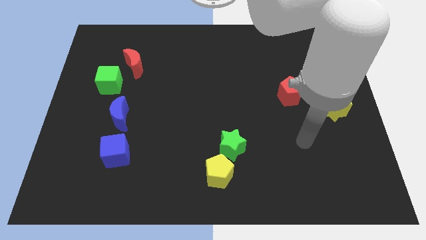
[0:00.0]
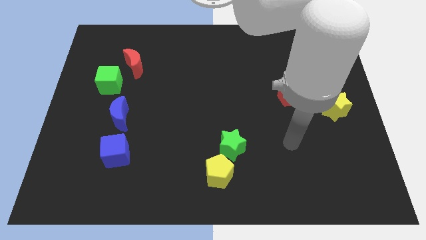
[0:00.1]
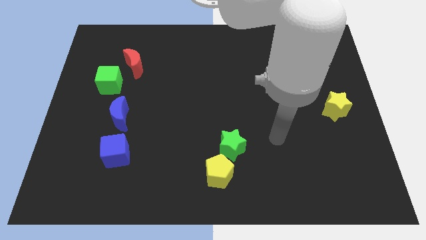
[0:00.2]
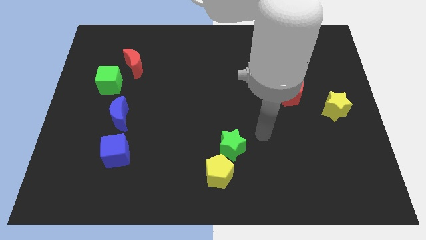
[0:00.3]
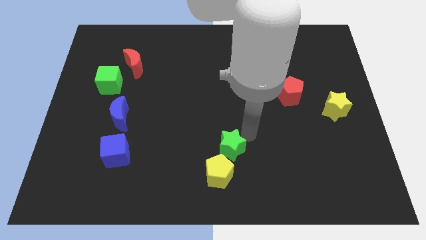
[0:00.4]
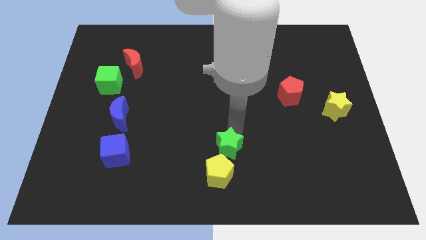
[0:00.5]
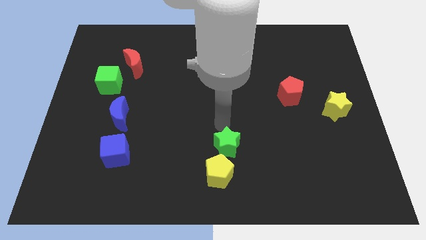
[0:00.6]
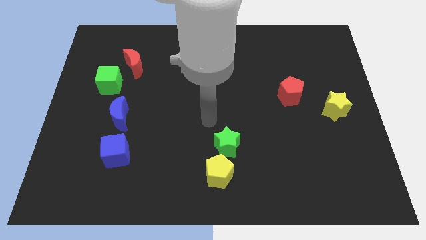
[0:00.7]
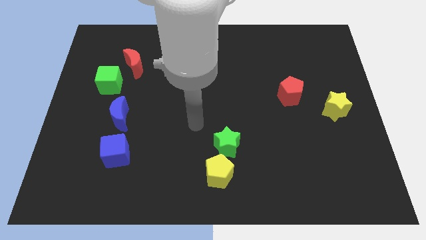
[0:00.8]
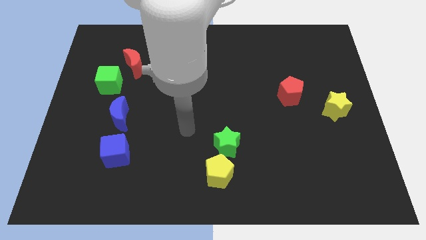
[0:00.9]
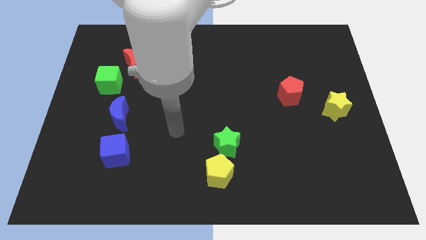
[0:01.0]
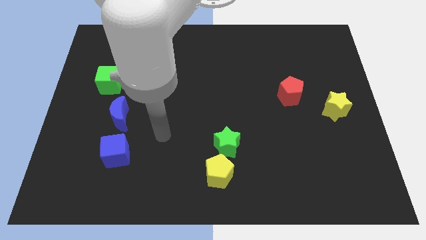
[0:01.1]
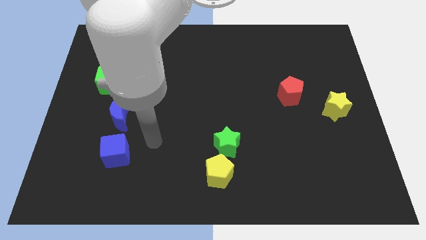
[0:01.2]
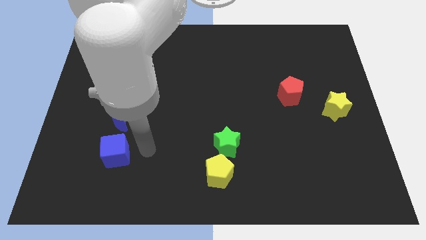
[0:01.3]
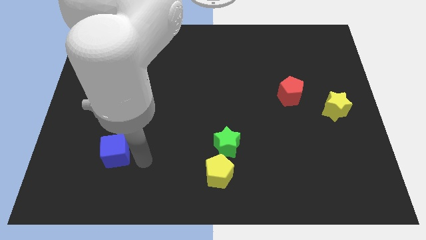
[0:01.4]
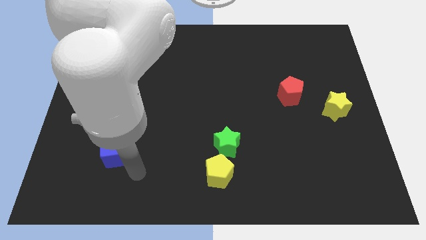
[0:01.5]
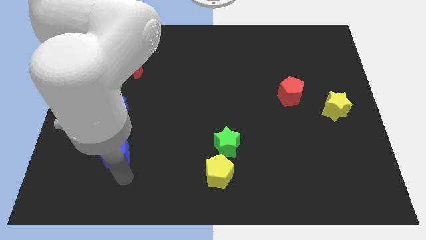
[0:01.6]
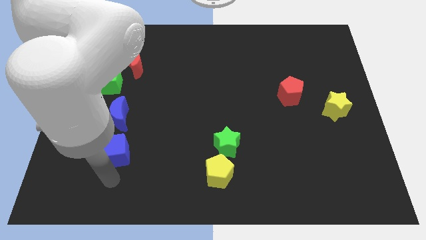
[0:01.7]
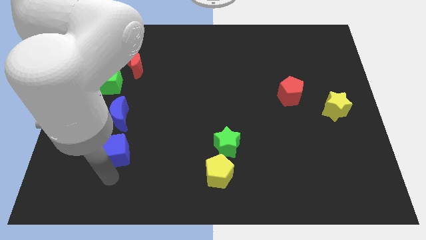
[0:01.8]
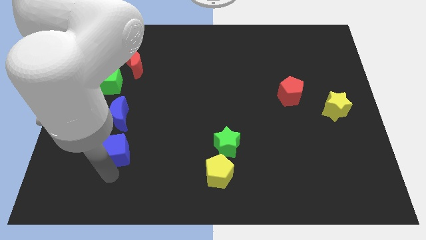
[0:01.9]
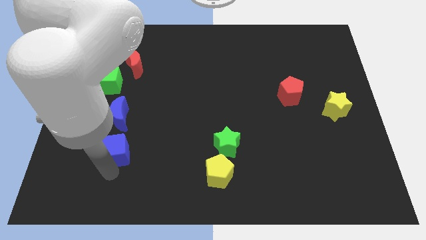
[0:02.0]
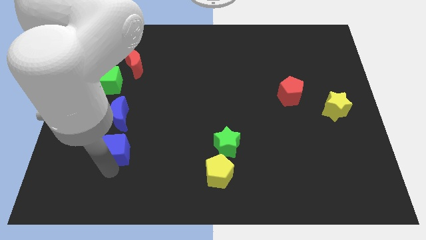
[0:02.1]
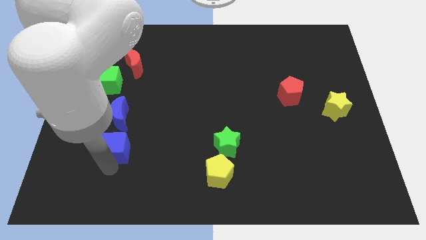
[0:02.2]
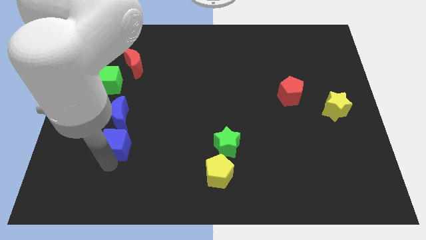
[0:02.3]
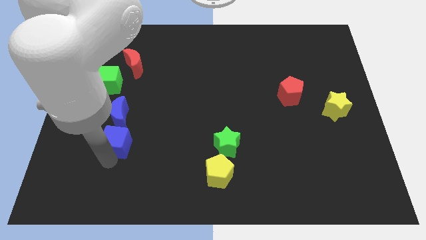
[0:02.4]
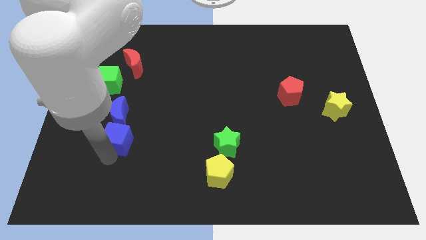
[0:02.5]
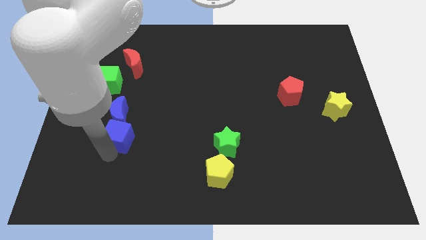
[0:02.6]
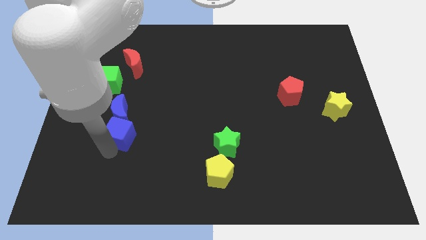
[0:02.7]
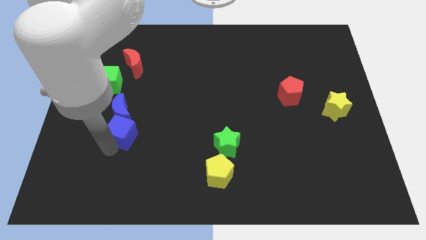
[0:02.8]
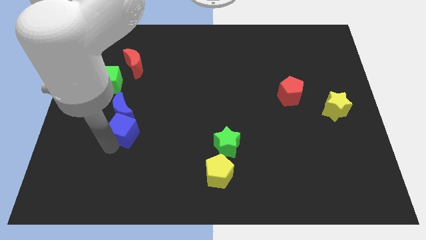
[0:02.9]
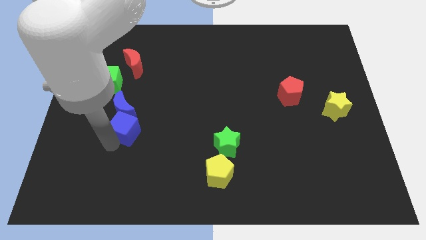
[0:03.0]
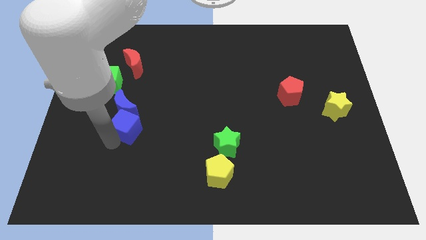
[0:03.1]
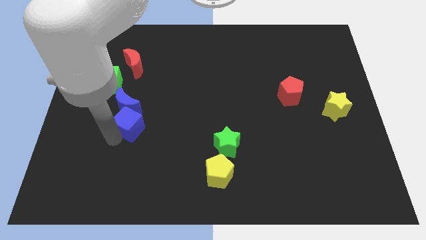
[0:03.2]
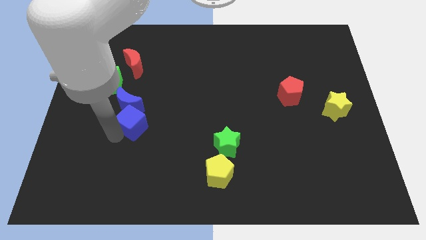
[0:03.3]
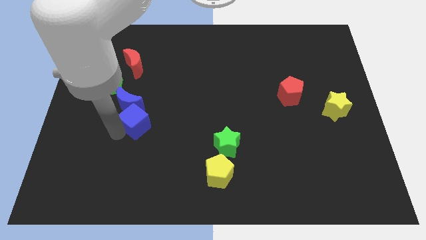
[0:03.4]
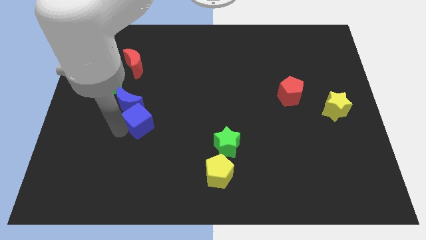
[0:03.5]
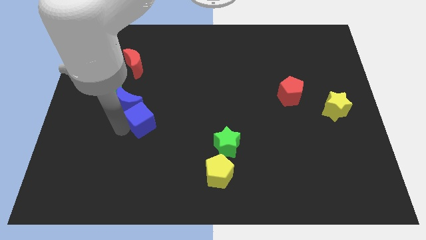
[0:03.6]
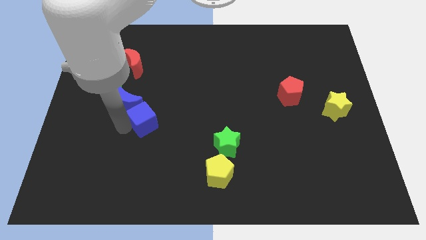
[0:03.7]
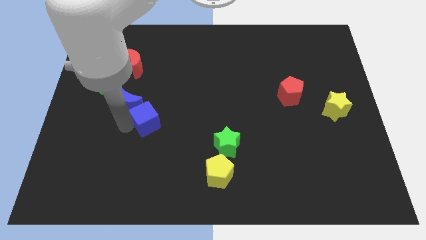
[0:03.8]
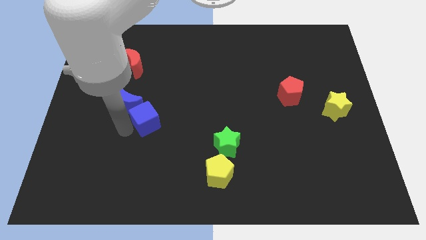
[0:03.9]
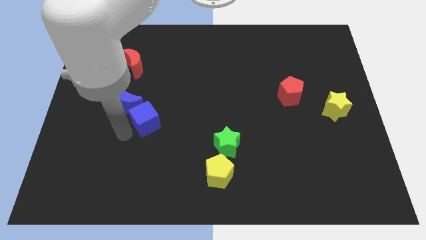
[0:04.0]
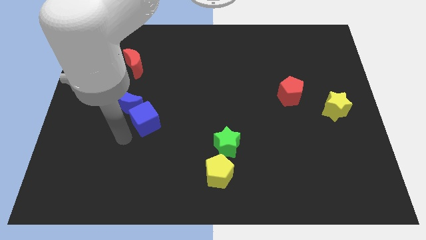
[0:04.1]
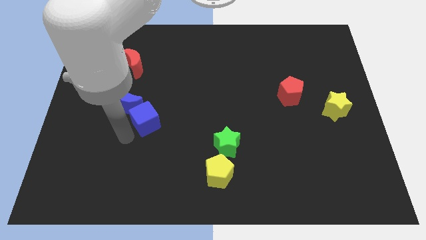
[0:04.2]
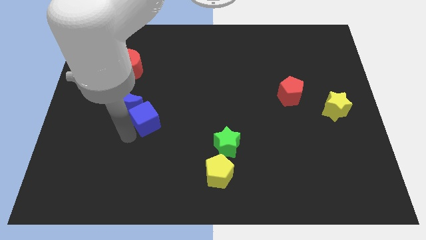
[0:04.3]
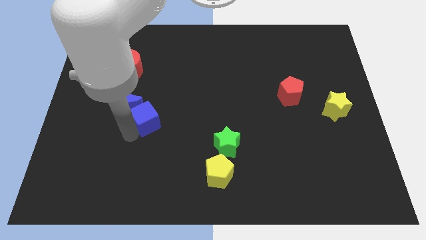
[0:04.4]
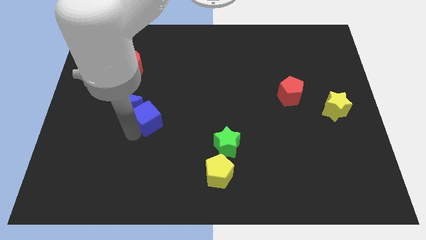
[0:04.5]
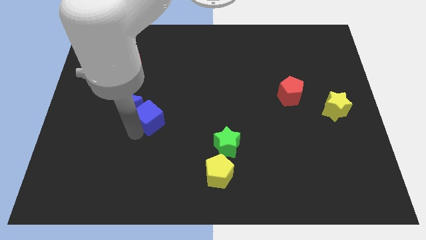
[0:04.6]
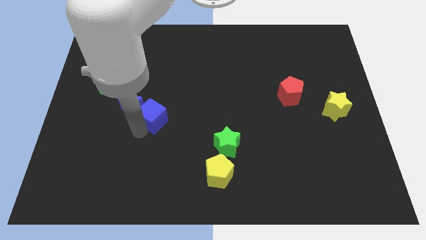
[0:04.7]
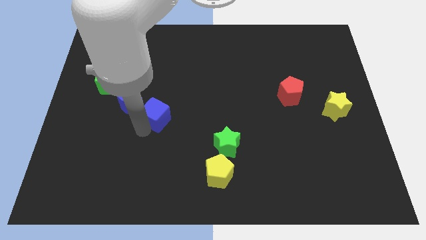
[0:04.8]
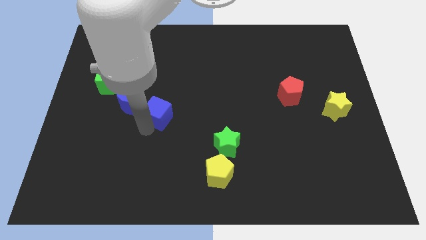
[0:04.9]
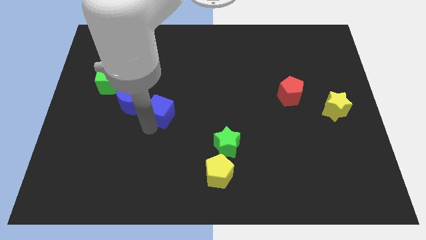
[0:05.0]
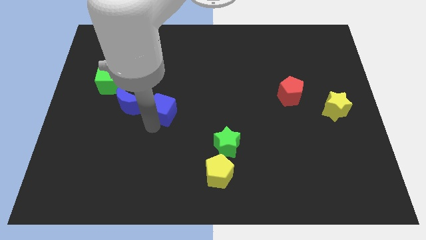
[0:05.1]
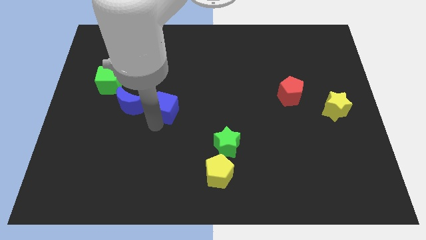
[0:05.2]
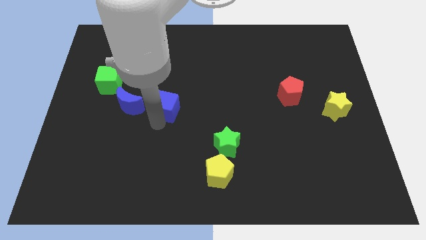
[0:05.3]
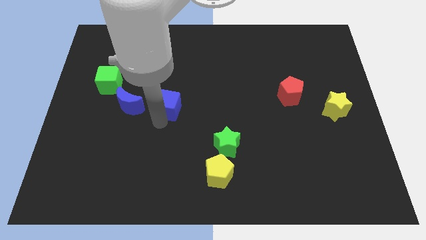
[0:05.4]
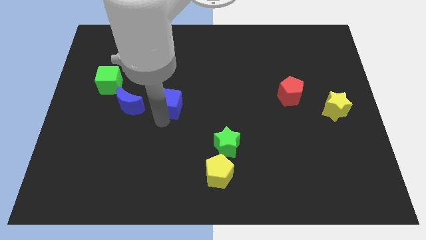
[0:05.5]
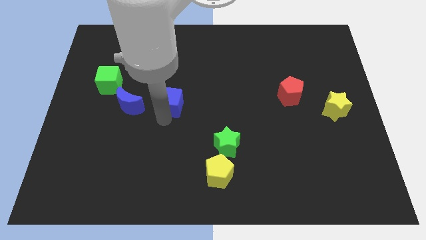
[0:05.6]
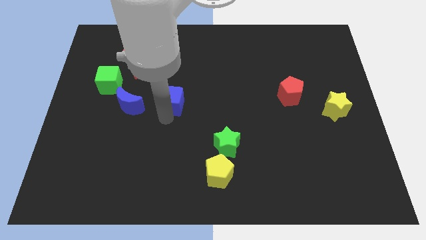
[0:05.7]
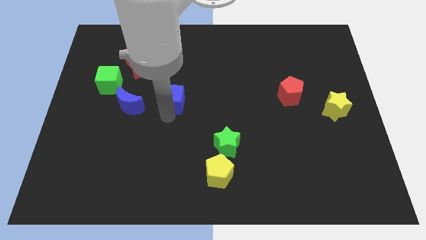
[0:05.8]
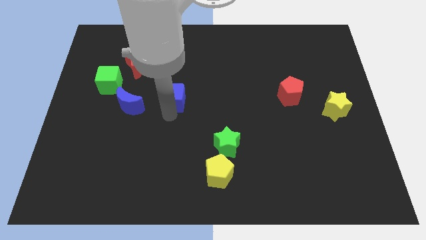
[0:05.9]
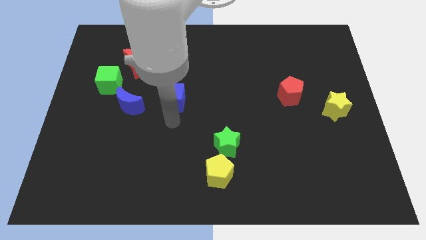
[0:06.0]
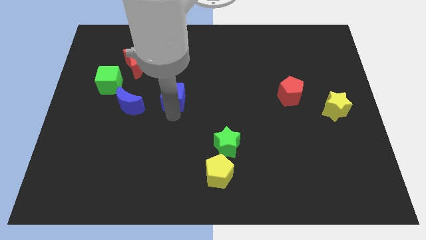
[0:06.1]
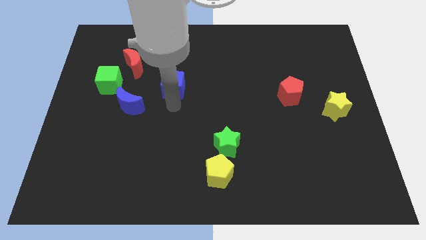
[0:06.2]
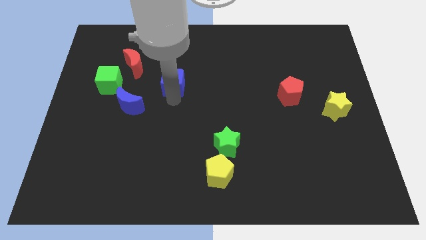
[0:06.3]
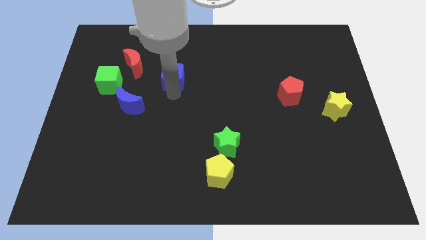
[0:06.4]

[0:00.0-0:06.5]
slide the blue cube right of the red moon
